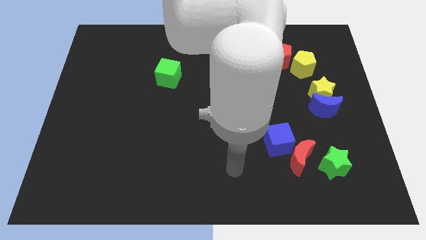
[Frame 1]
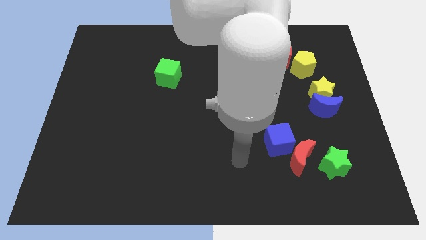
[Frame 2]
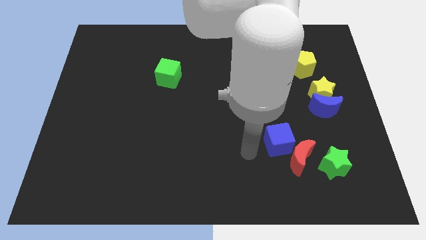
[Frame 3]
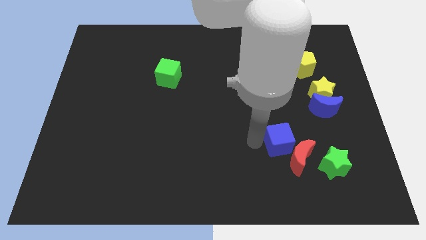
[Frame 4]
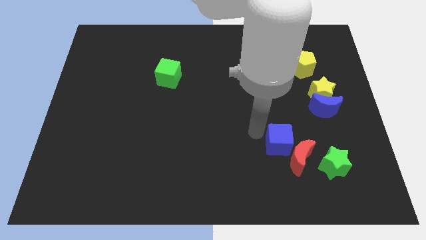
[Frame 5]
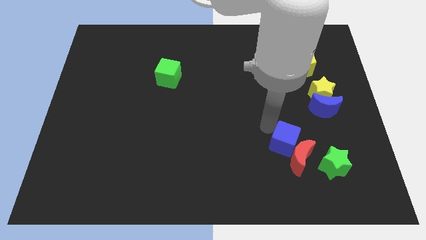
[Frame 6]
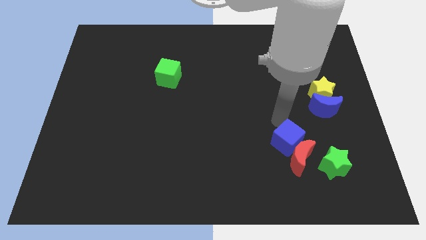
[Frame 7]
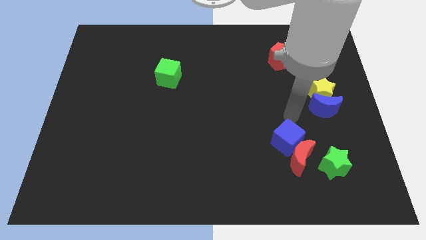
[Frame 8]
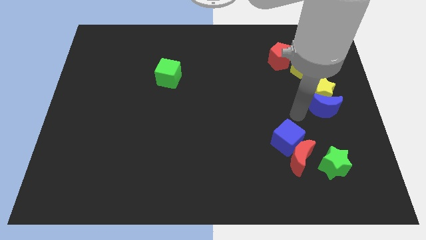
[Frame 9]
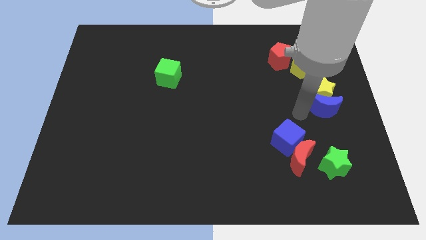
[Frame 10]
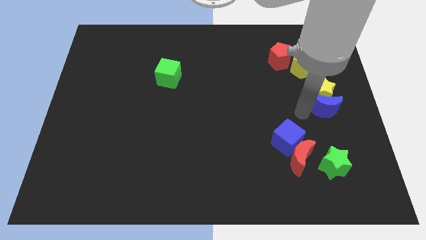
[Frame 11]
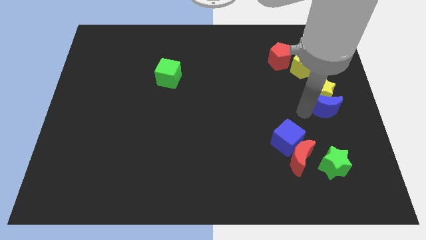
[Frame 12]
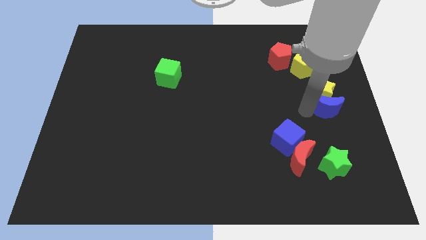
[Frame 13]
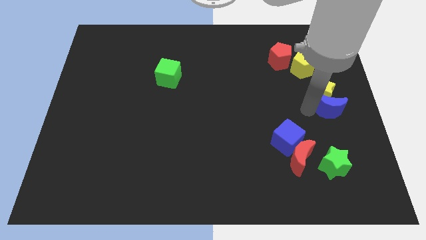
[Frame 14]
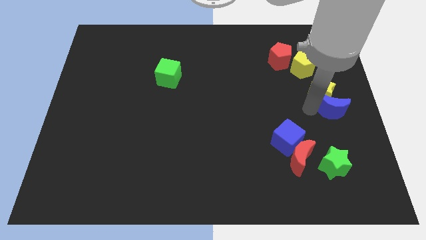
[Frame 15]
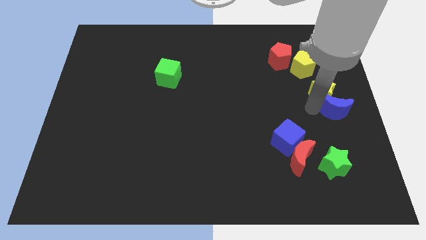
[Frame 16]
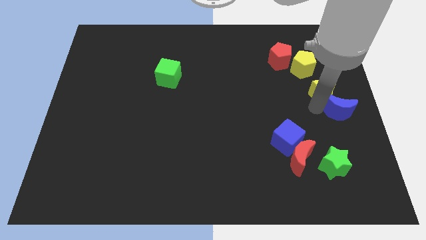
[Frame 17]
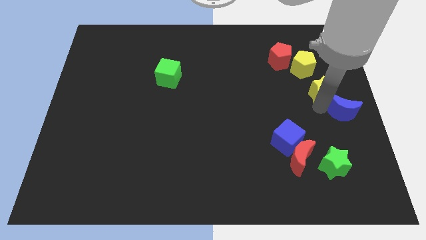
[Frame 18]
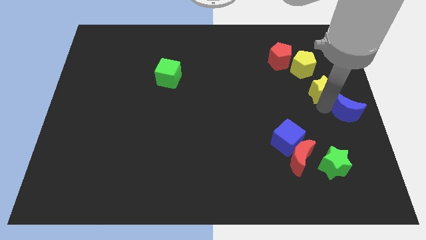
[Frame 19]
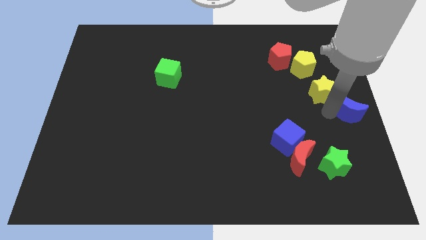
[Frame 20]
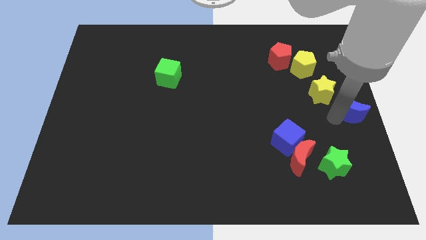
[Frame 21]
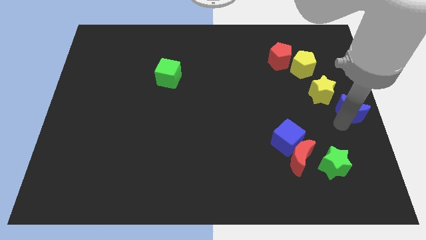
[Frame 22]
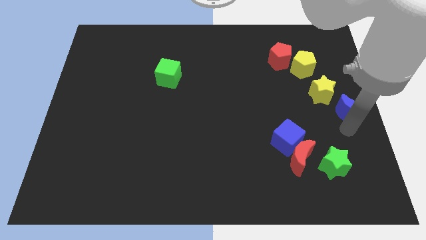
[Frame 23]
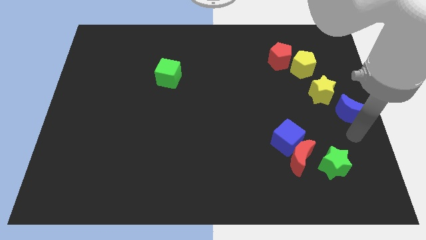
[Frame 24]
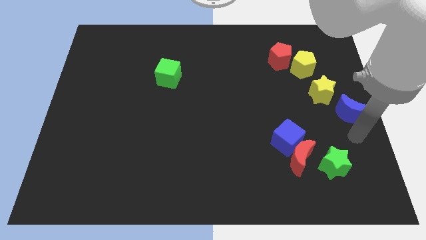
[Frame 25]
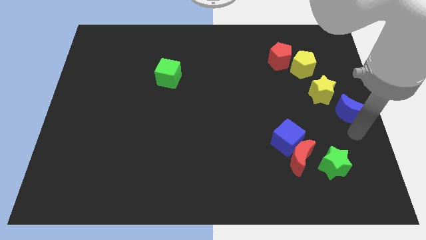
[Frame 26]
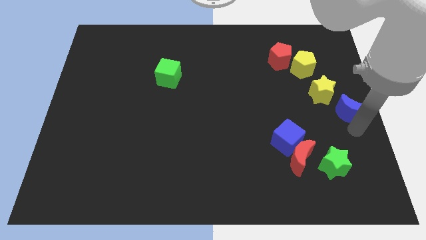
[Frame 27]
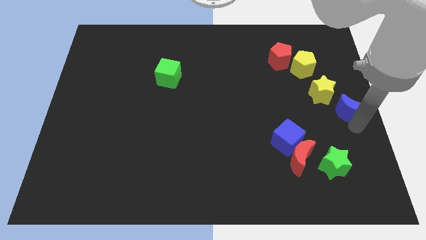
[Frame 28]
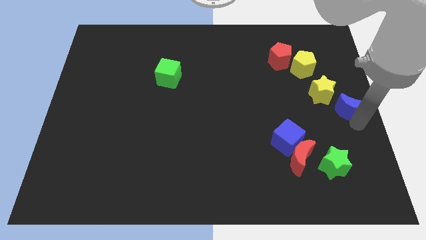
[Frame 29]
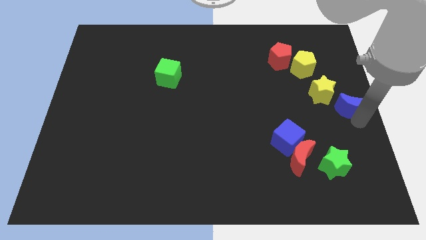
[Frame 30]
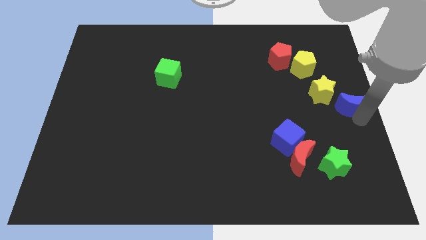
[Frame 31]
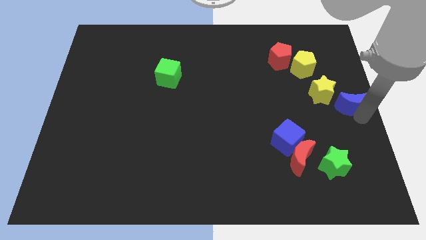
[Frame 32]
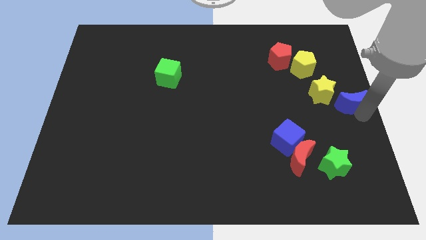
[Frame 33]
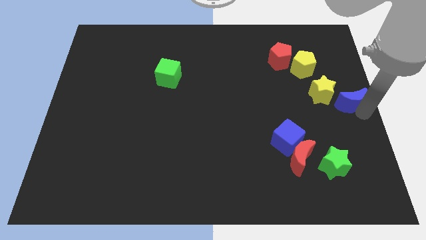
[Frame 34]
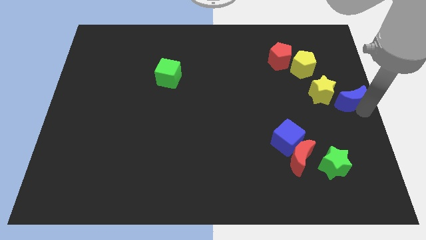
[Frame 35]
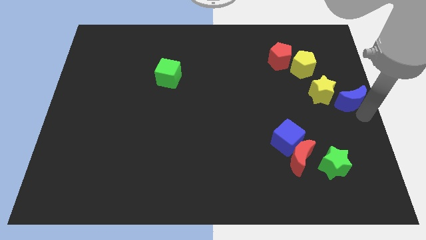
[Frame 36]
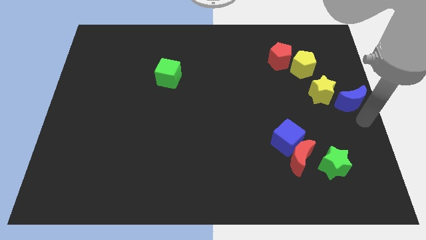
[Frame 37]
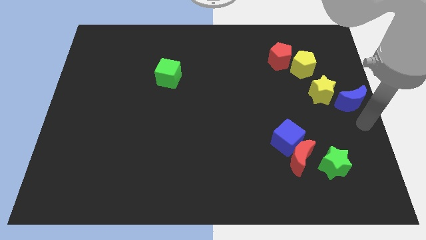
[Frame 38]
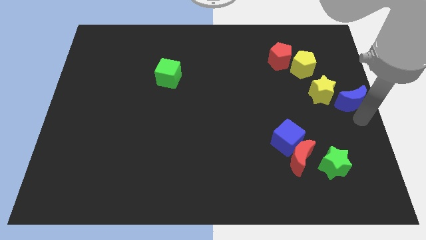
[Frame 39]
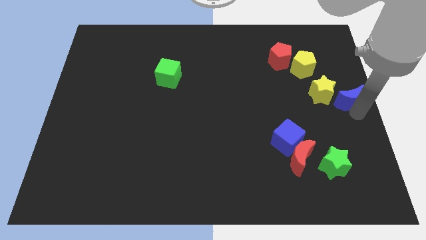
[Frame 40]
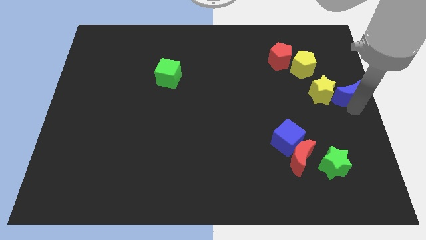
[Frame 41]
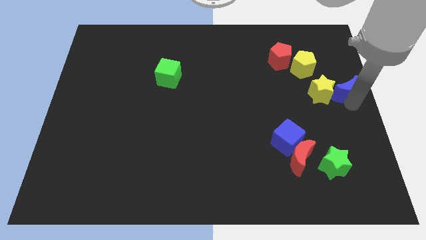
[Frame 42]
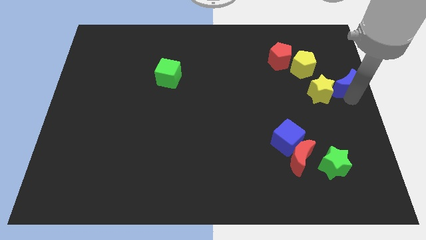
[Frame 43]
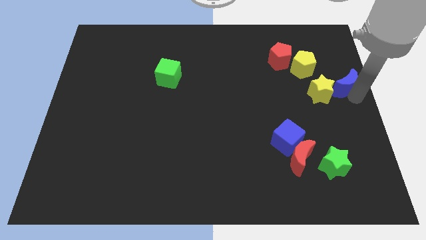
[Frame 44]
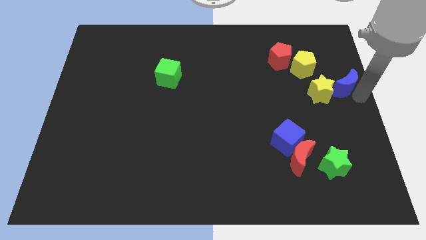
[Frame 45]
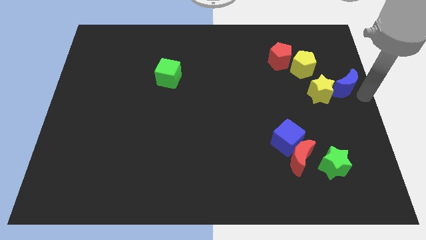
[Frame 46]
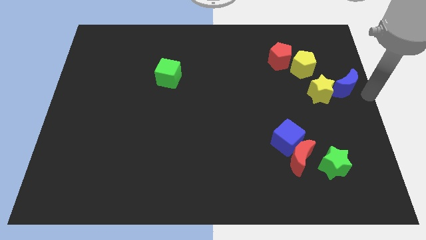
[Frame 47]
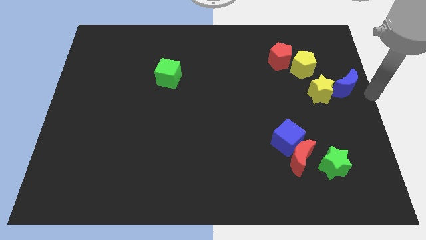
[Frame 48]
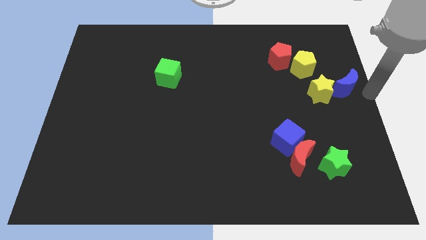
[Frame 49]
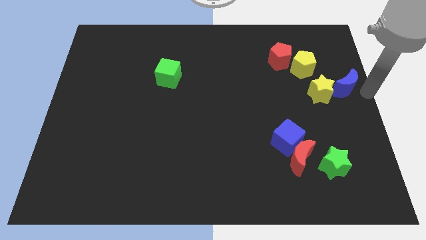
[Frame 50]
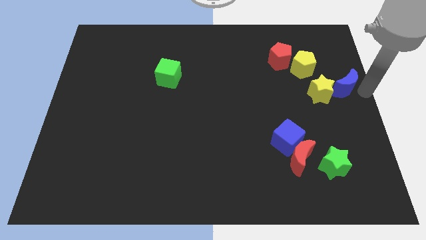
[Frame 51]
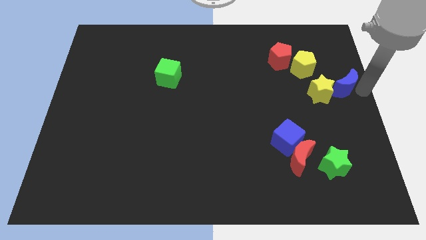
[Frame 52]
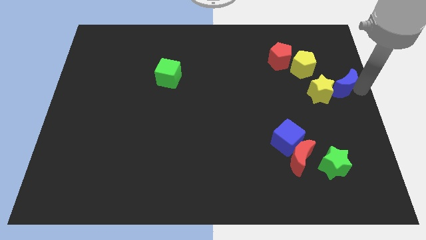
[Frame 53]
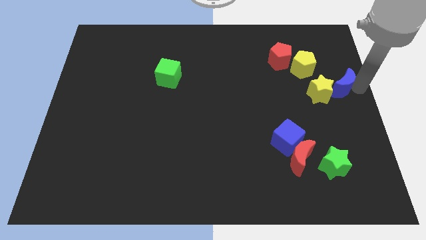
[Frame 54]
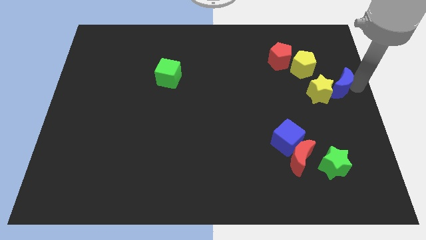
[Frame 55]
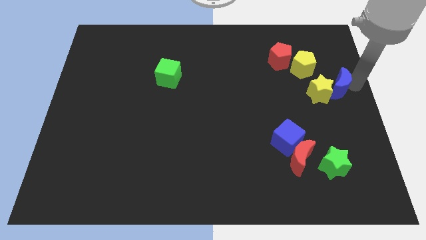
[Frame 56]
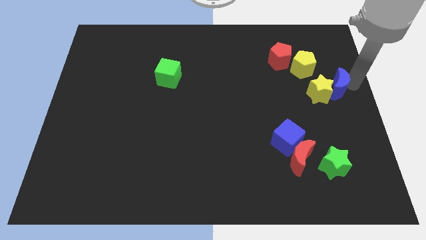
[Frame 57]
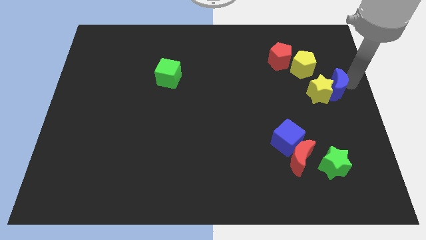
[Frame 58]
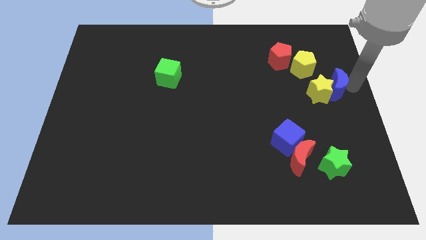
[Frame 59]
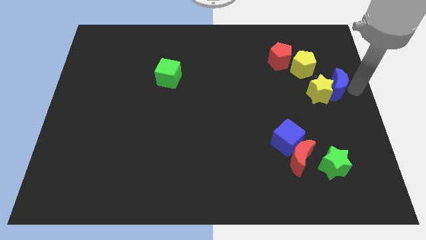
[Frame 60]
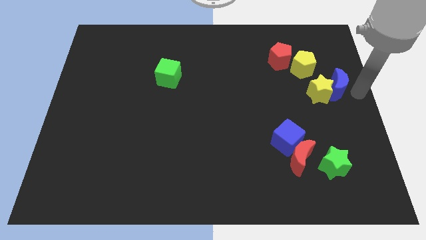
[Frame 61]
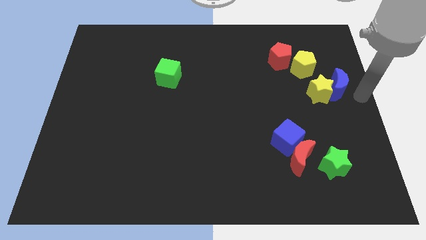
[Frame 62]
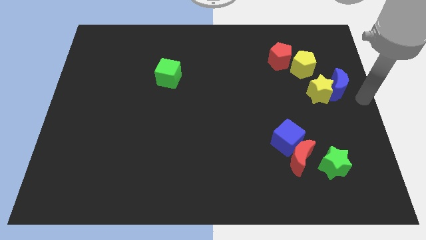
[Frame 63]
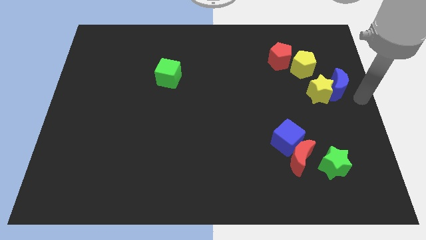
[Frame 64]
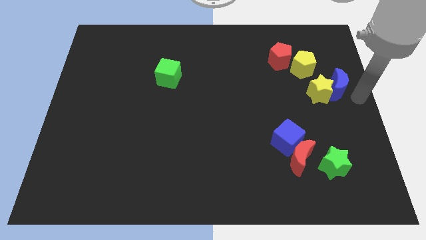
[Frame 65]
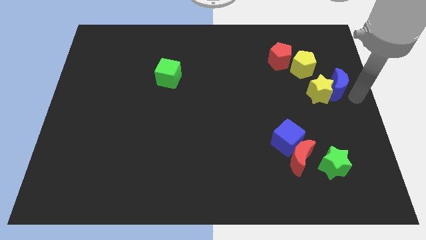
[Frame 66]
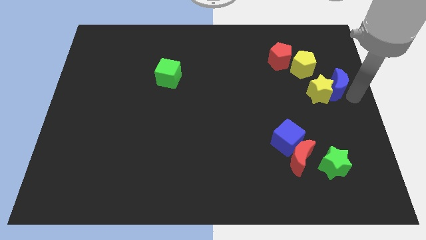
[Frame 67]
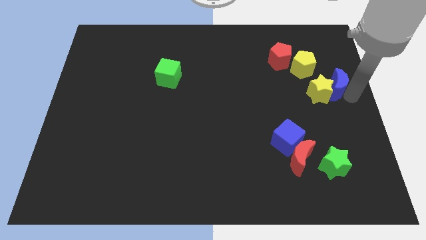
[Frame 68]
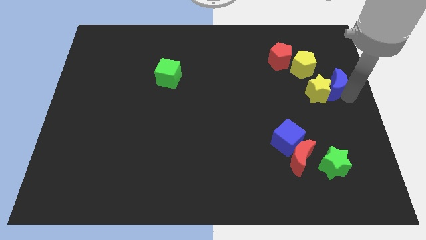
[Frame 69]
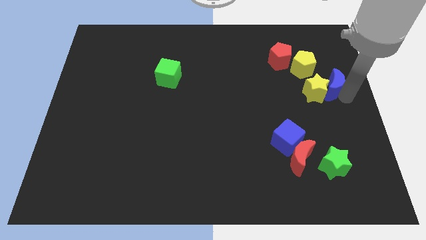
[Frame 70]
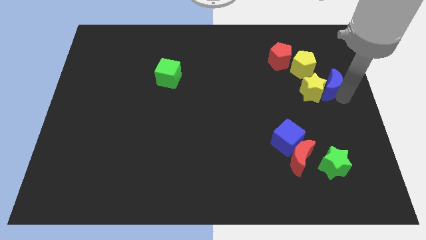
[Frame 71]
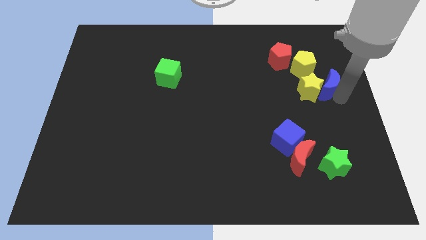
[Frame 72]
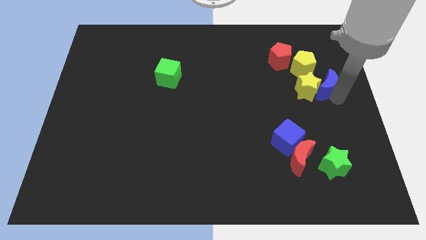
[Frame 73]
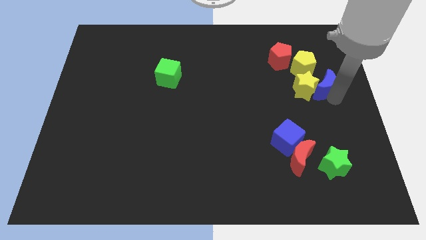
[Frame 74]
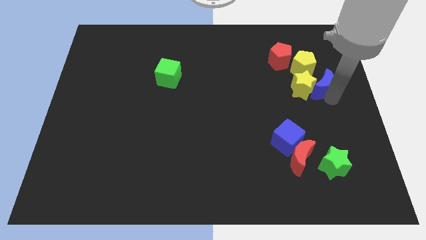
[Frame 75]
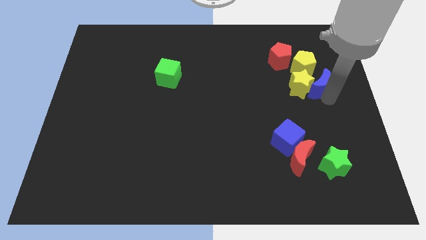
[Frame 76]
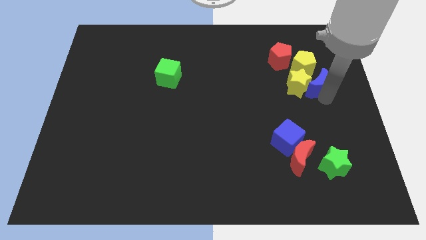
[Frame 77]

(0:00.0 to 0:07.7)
move the blue moon to the bottom right side of the red pentagon

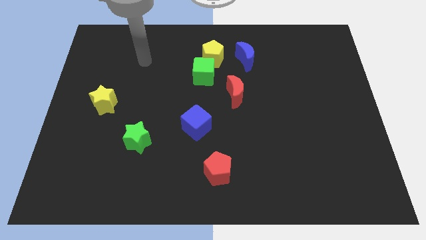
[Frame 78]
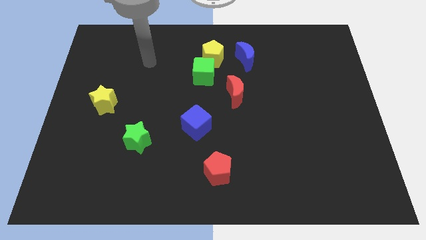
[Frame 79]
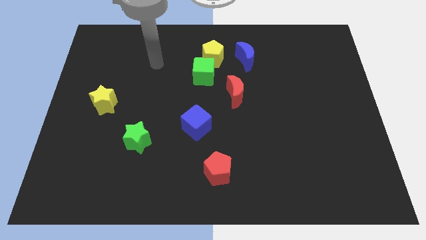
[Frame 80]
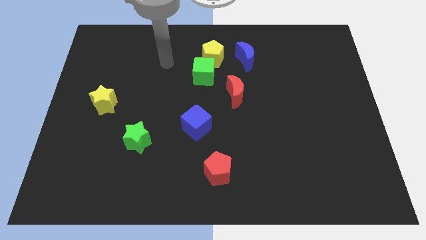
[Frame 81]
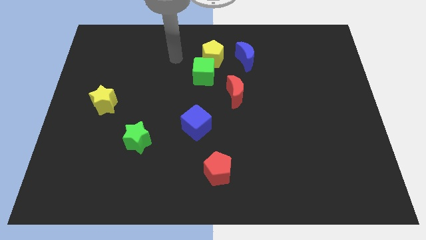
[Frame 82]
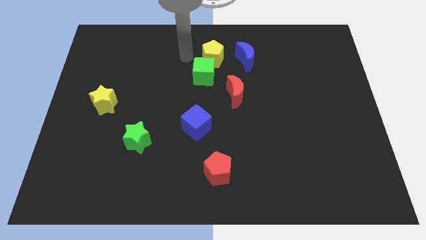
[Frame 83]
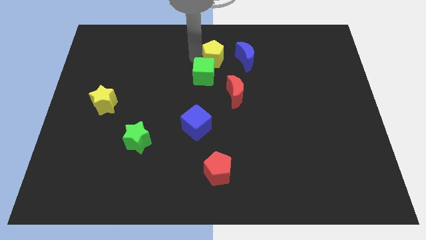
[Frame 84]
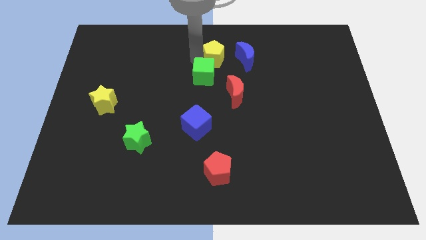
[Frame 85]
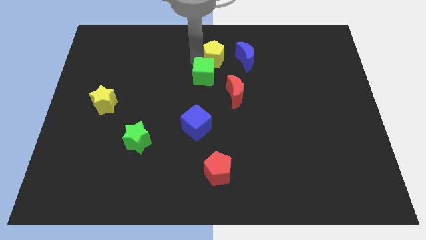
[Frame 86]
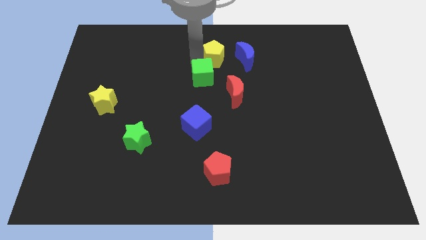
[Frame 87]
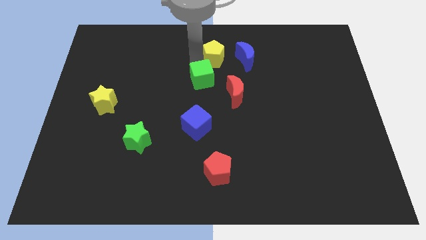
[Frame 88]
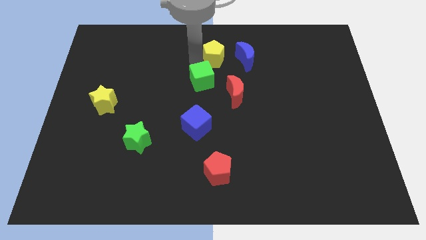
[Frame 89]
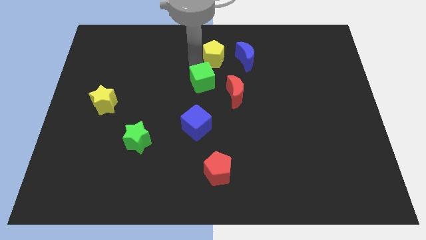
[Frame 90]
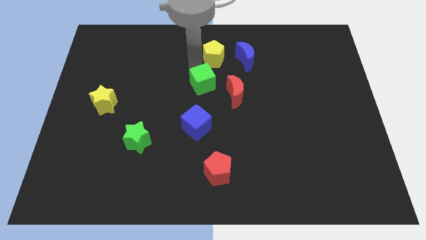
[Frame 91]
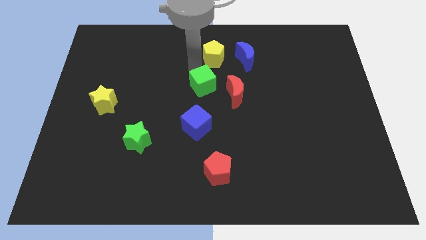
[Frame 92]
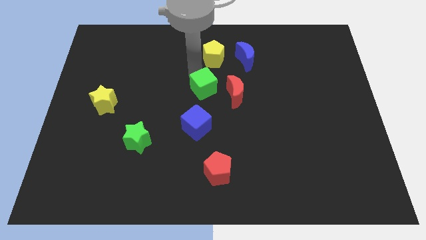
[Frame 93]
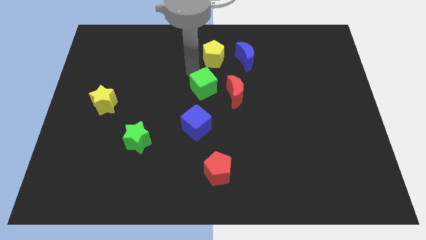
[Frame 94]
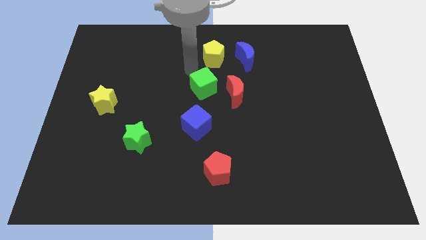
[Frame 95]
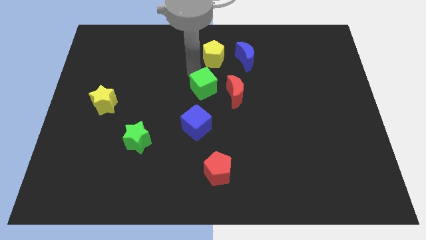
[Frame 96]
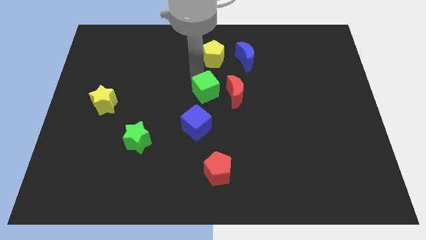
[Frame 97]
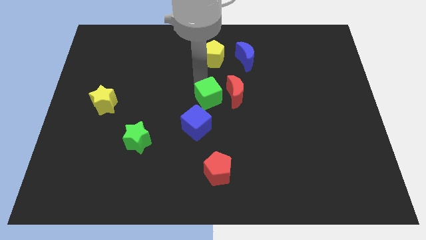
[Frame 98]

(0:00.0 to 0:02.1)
slide the green cube to the top right of the blue cube
